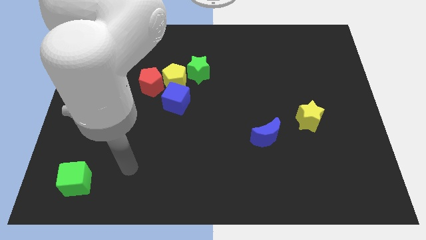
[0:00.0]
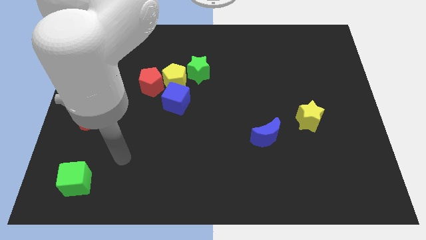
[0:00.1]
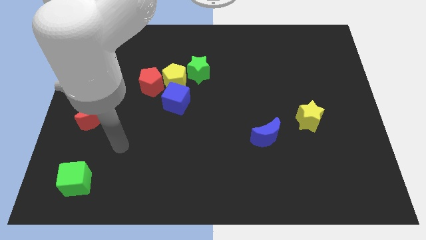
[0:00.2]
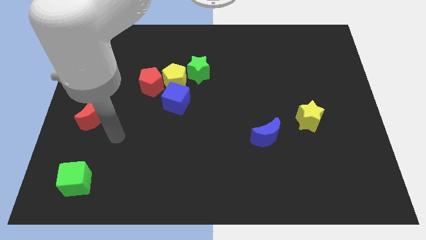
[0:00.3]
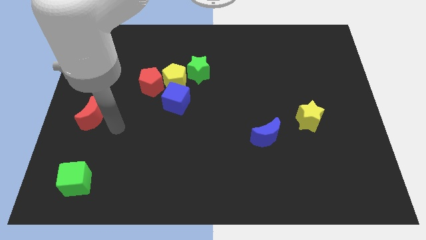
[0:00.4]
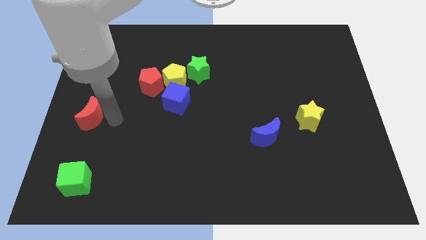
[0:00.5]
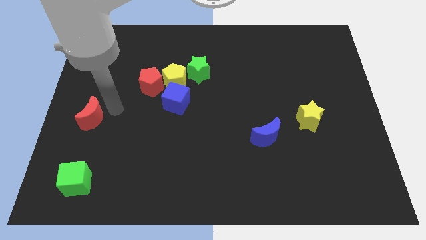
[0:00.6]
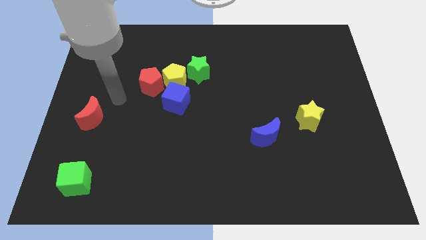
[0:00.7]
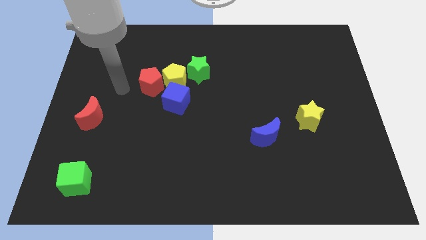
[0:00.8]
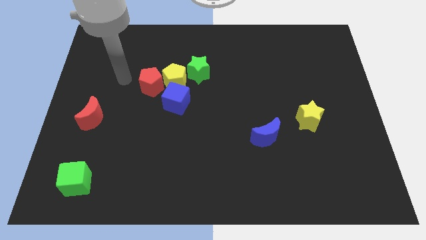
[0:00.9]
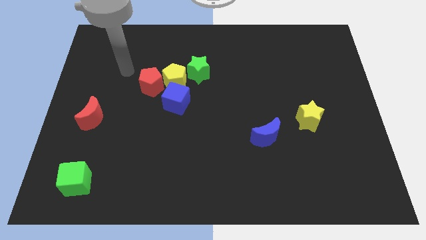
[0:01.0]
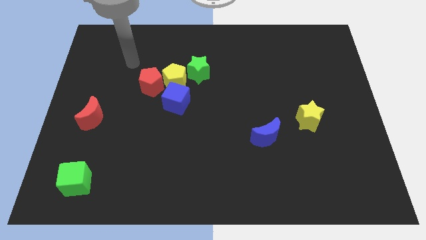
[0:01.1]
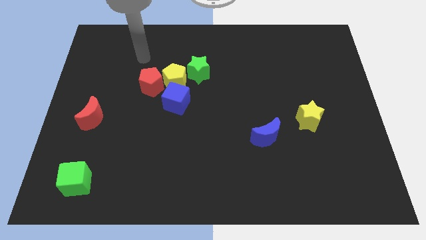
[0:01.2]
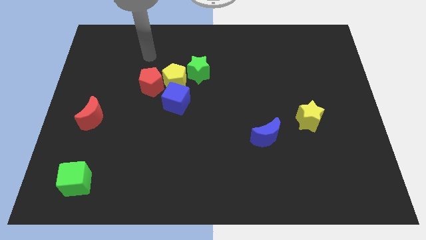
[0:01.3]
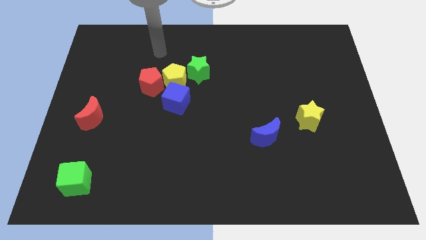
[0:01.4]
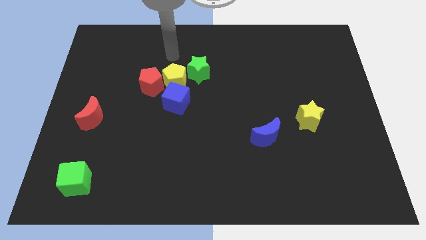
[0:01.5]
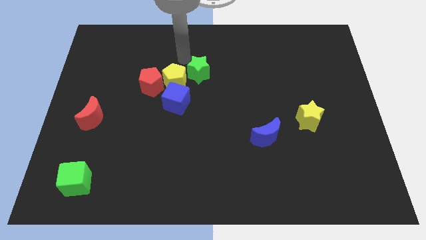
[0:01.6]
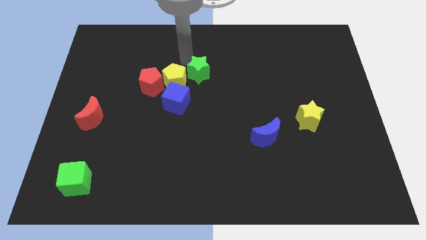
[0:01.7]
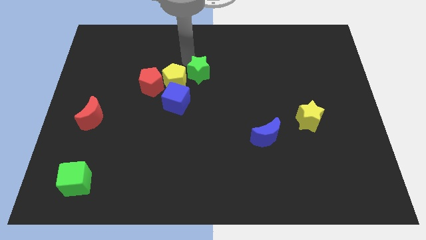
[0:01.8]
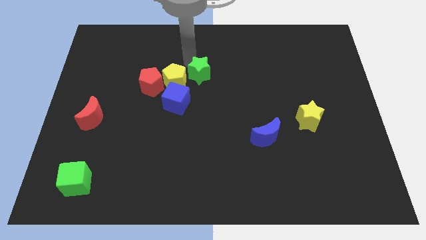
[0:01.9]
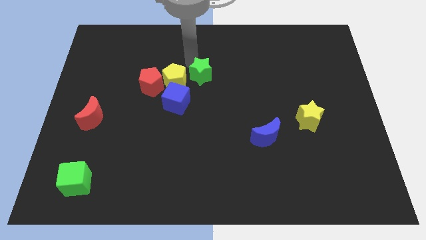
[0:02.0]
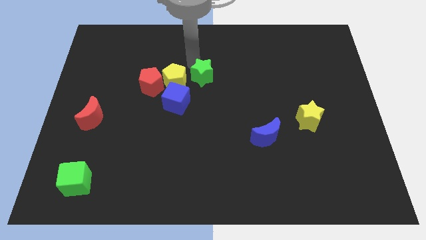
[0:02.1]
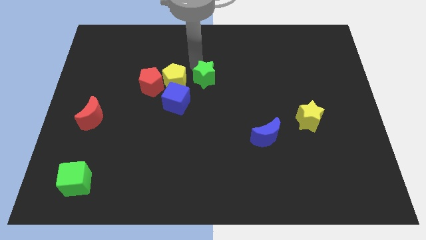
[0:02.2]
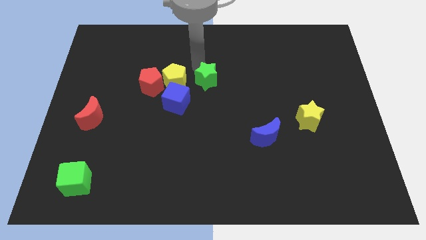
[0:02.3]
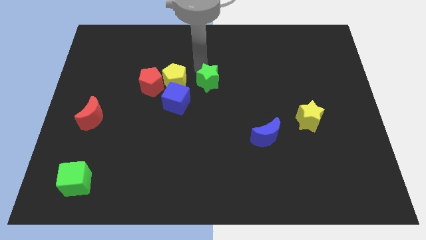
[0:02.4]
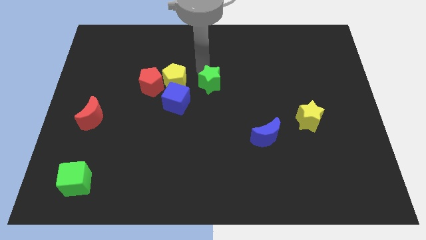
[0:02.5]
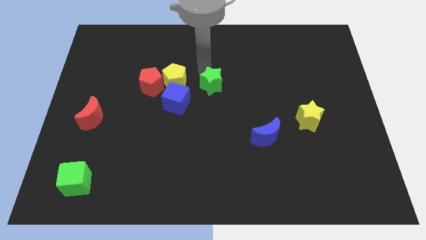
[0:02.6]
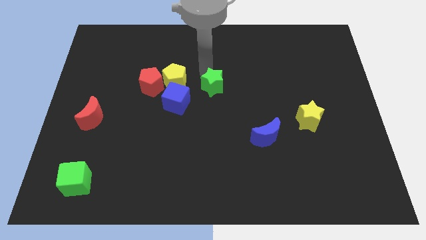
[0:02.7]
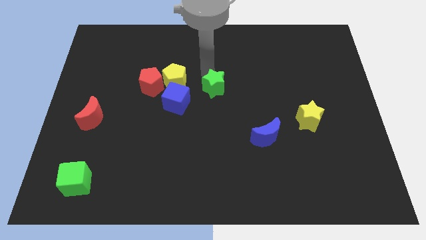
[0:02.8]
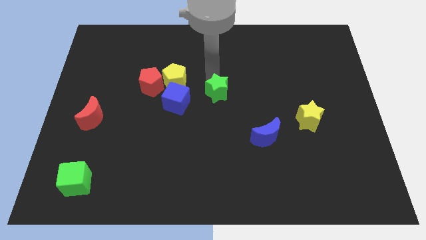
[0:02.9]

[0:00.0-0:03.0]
slide the green star diagonally down and right a little

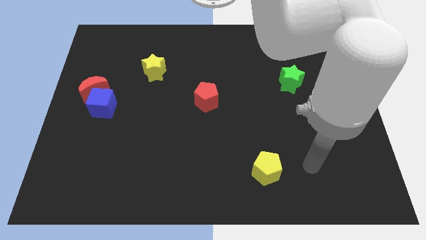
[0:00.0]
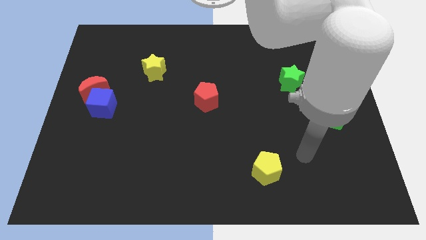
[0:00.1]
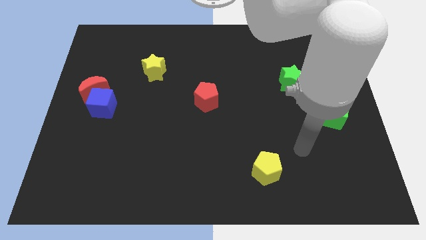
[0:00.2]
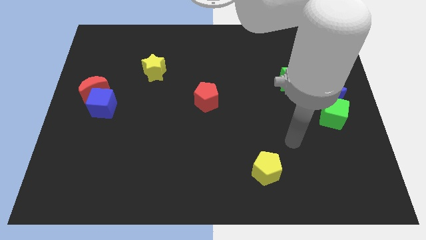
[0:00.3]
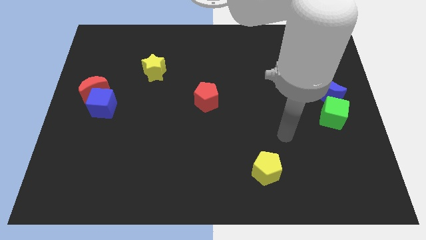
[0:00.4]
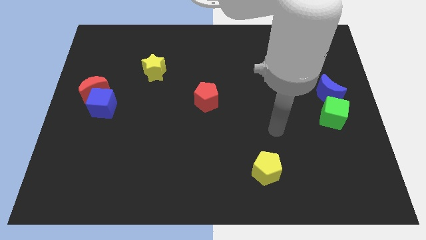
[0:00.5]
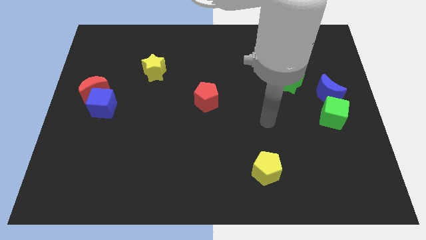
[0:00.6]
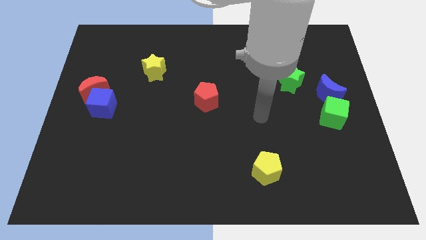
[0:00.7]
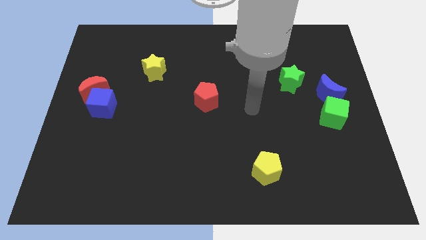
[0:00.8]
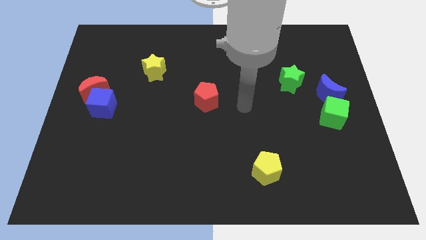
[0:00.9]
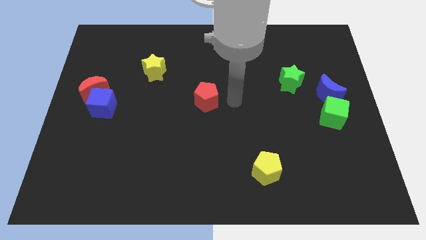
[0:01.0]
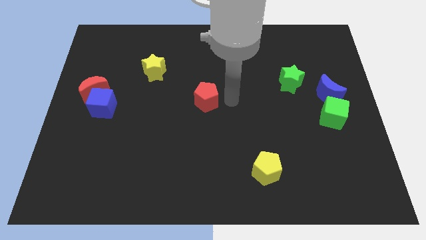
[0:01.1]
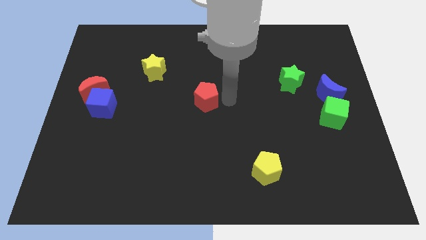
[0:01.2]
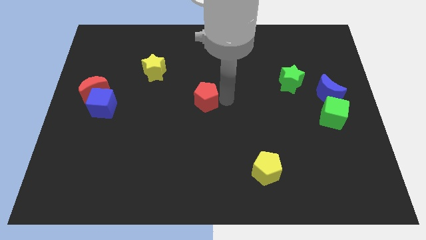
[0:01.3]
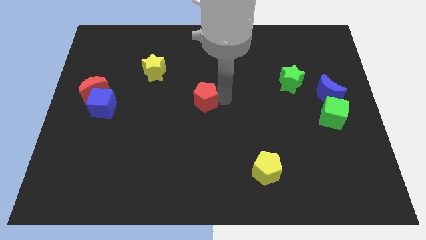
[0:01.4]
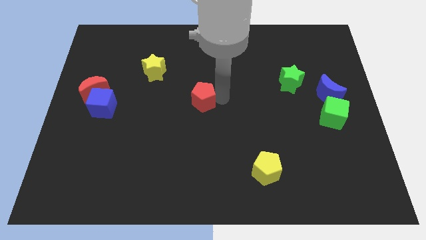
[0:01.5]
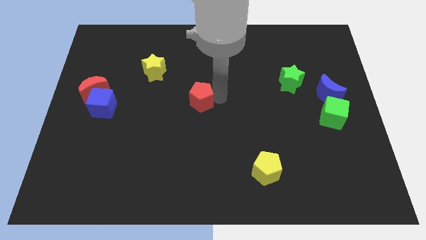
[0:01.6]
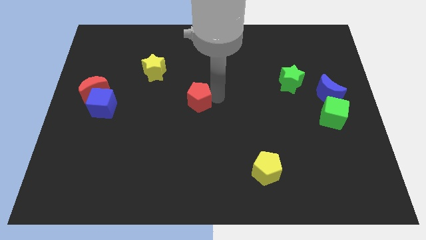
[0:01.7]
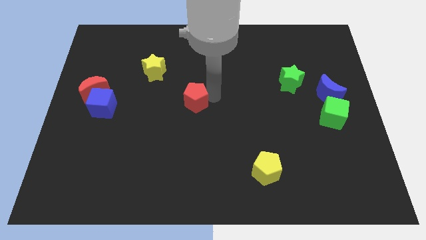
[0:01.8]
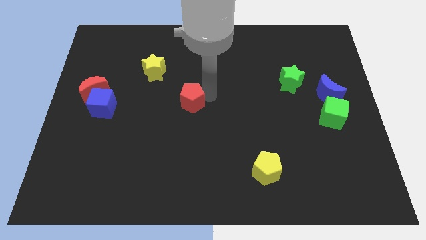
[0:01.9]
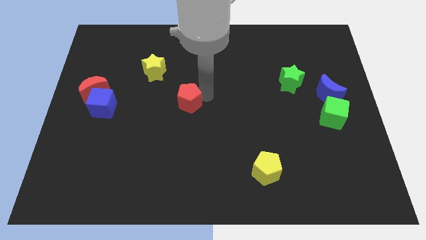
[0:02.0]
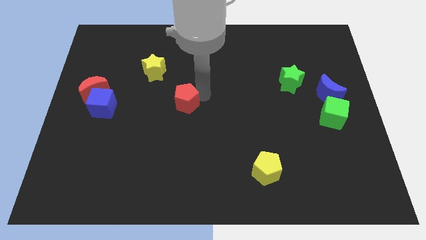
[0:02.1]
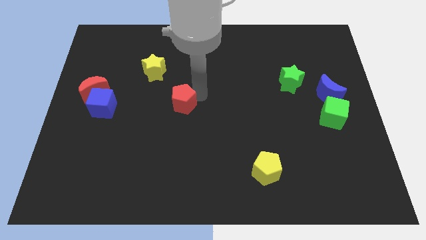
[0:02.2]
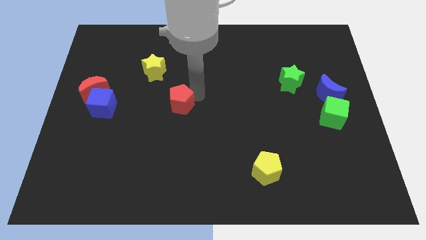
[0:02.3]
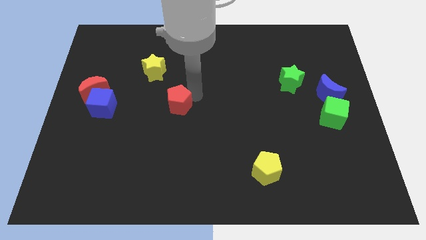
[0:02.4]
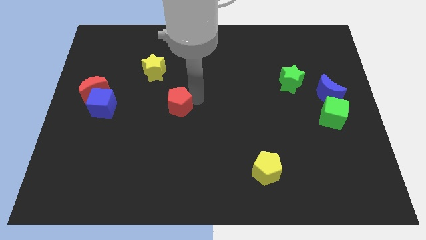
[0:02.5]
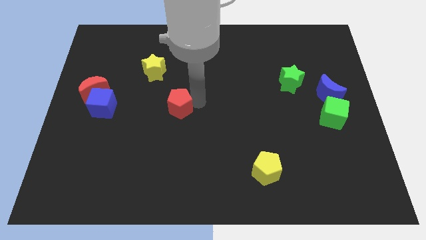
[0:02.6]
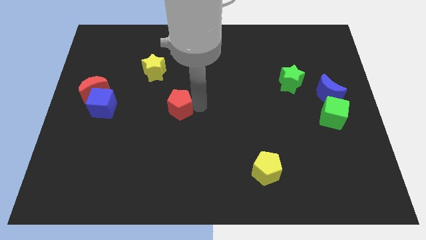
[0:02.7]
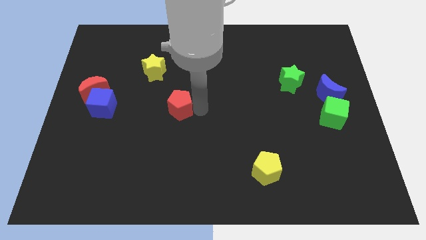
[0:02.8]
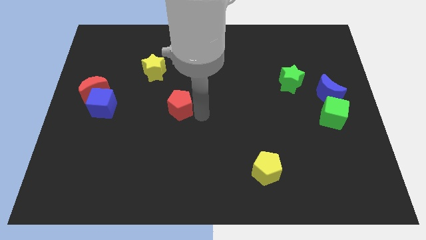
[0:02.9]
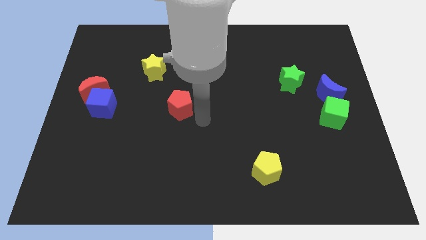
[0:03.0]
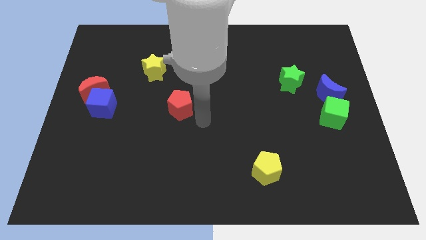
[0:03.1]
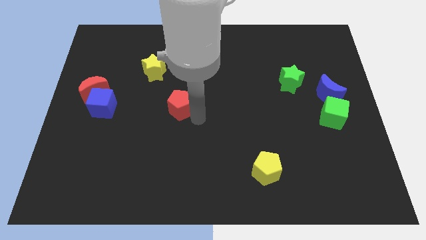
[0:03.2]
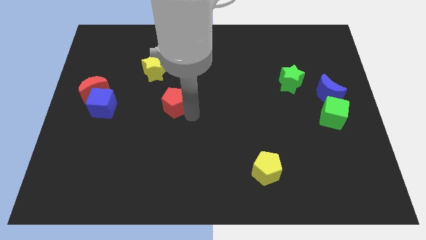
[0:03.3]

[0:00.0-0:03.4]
slide the red pentagon left a little bit

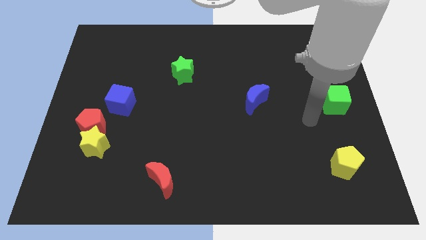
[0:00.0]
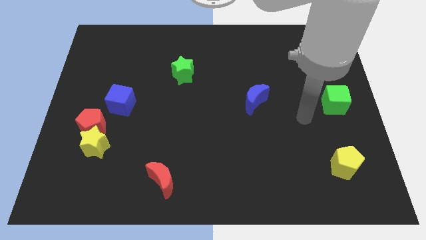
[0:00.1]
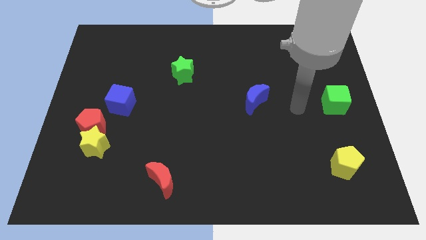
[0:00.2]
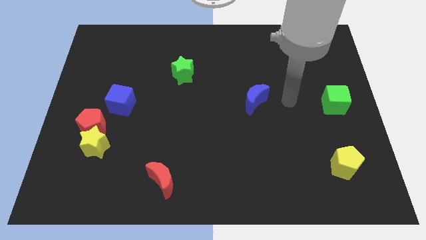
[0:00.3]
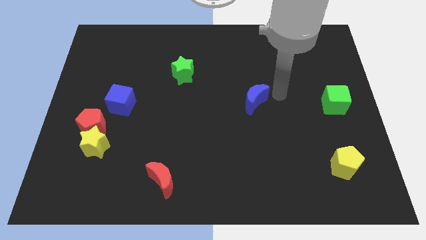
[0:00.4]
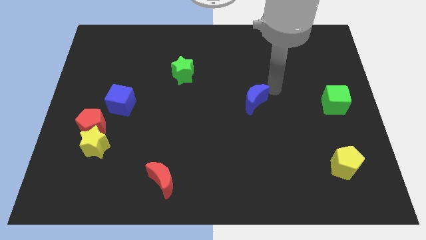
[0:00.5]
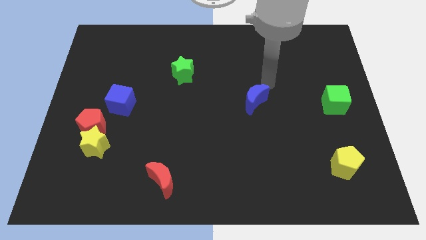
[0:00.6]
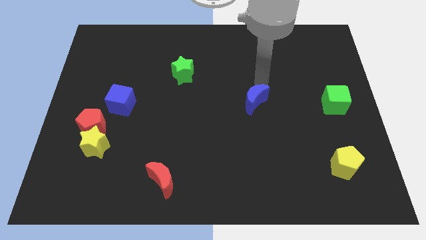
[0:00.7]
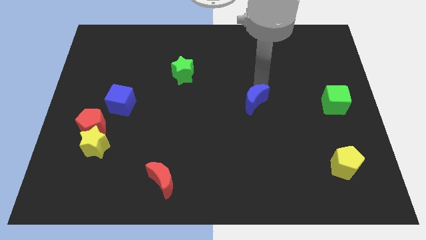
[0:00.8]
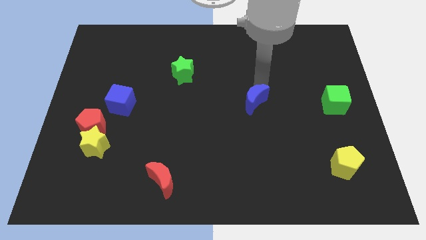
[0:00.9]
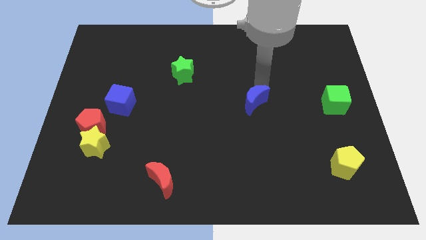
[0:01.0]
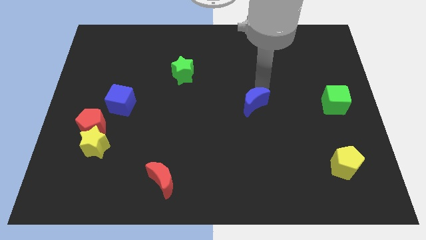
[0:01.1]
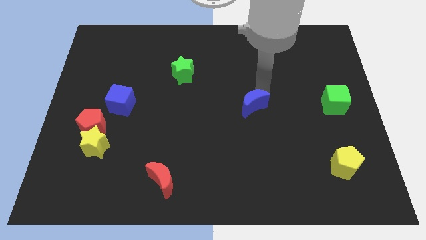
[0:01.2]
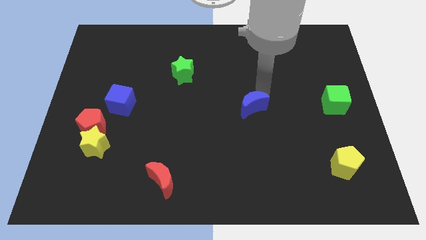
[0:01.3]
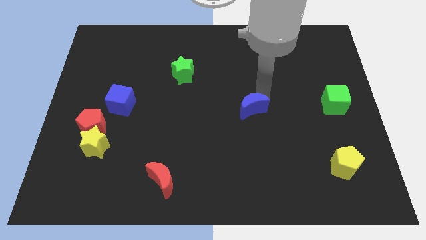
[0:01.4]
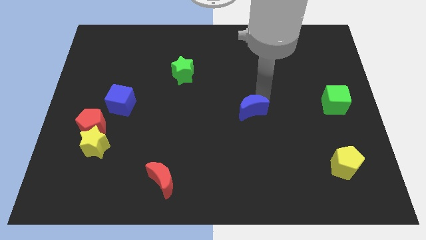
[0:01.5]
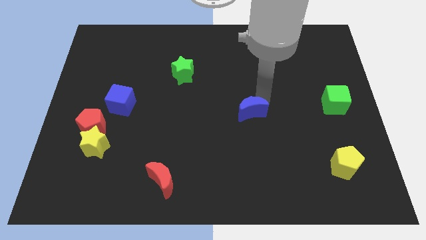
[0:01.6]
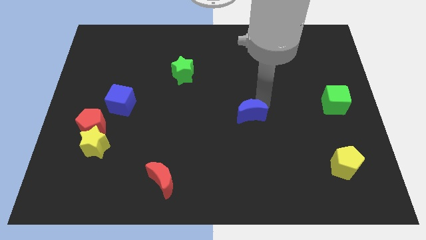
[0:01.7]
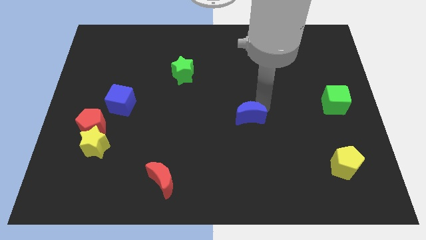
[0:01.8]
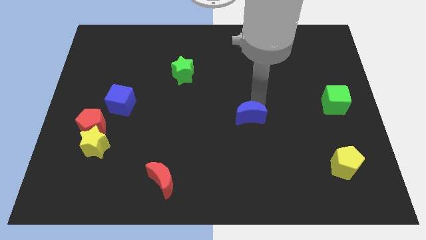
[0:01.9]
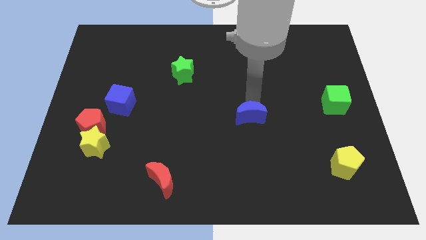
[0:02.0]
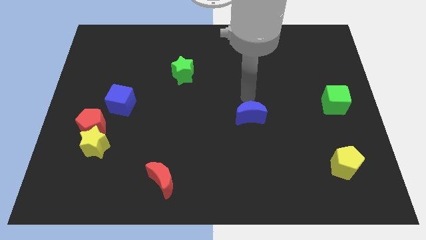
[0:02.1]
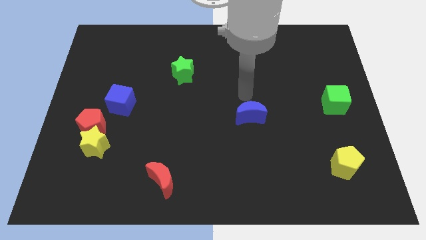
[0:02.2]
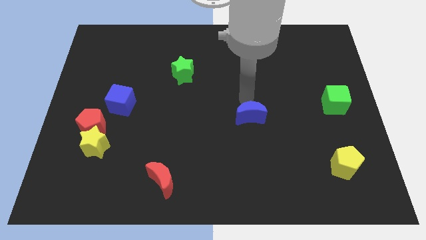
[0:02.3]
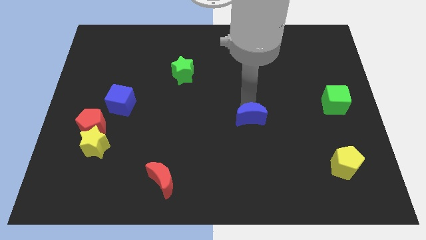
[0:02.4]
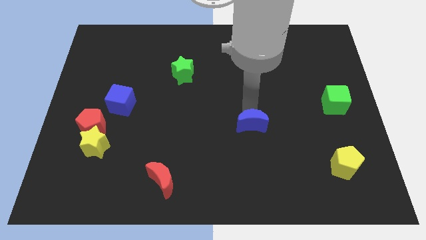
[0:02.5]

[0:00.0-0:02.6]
slide the blue moon down a bit
